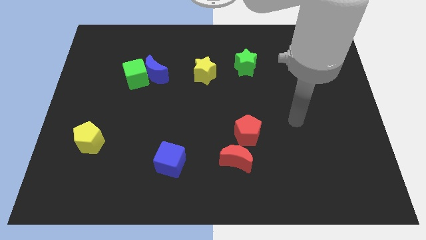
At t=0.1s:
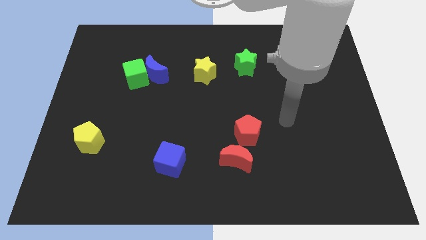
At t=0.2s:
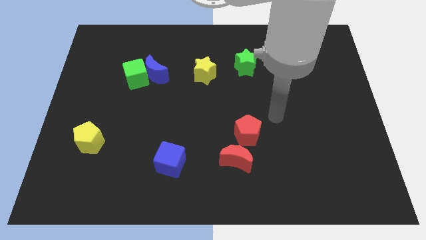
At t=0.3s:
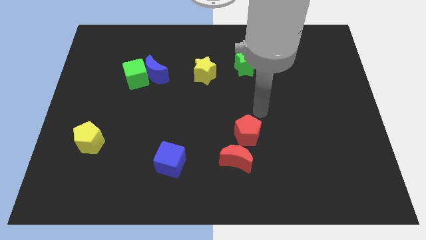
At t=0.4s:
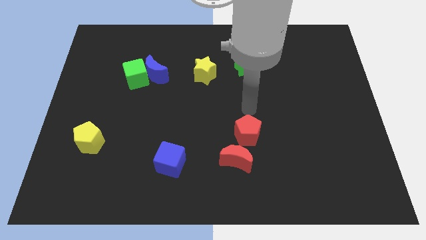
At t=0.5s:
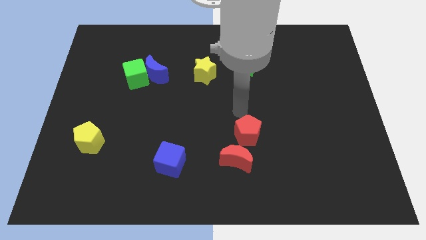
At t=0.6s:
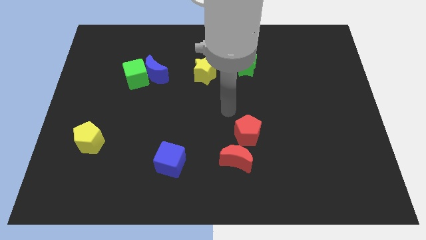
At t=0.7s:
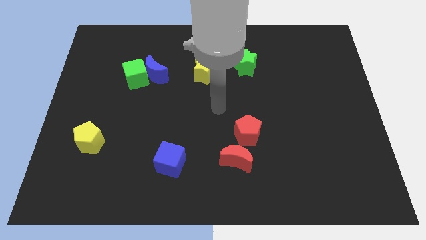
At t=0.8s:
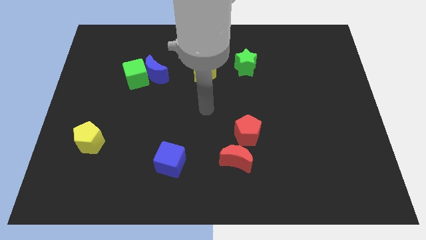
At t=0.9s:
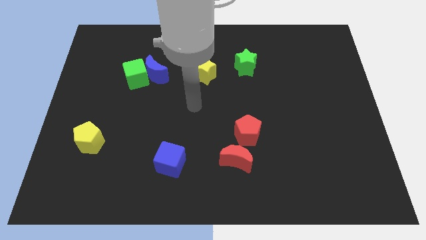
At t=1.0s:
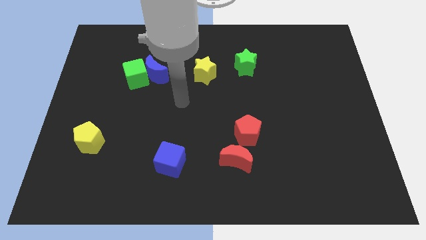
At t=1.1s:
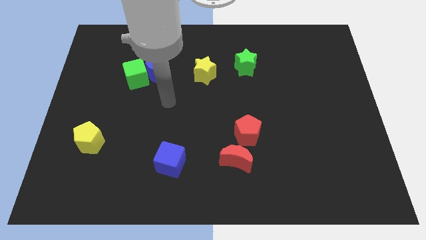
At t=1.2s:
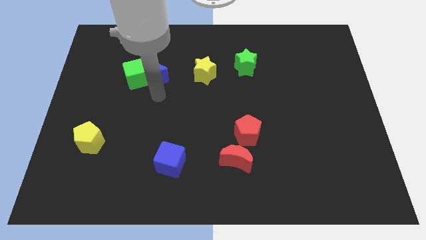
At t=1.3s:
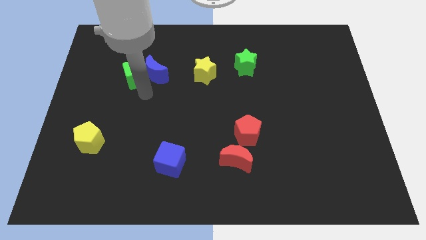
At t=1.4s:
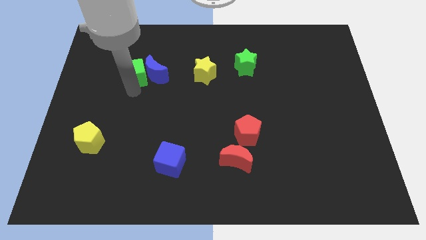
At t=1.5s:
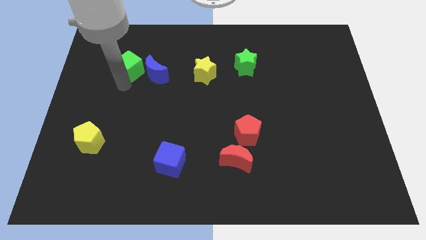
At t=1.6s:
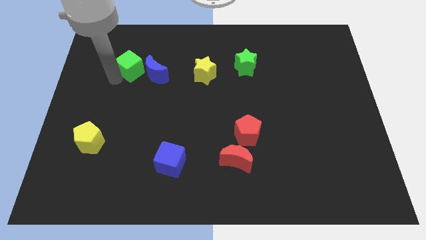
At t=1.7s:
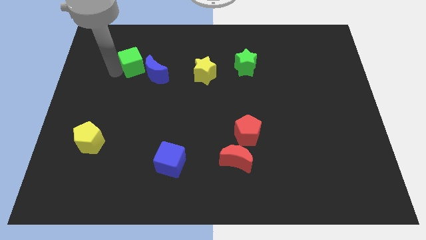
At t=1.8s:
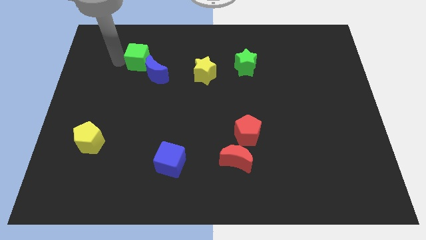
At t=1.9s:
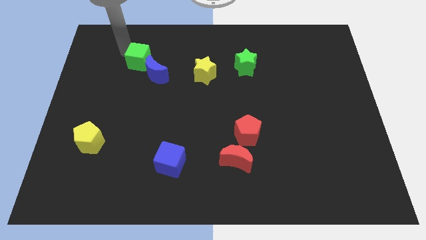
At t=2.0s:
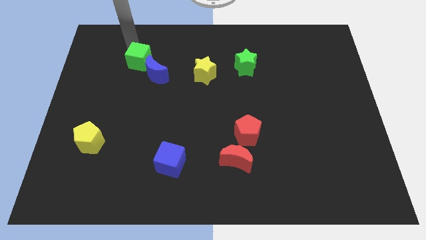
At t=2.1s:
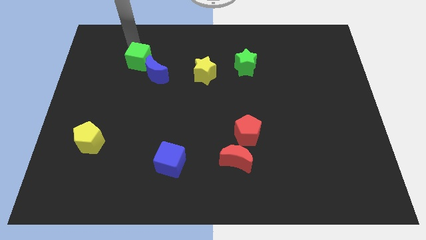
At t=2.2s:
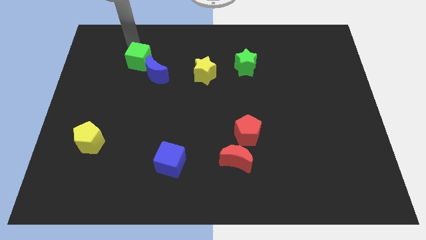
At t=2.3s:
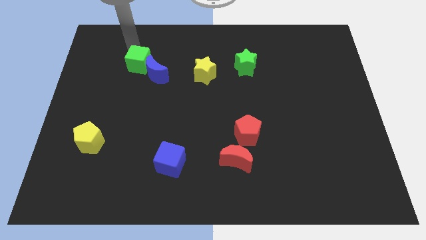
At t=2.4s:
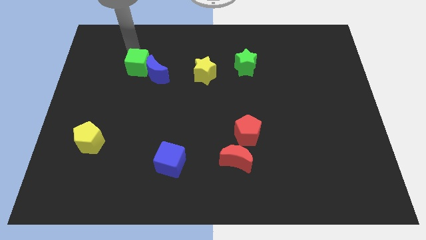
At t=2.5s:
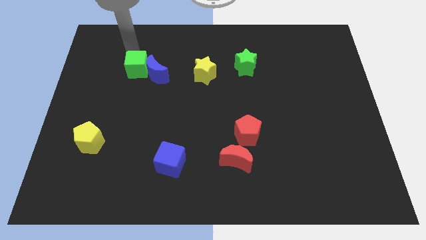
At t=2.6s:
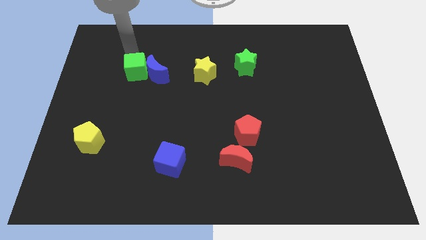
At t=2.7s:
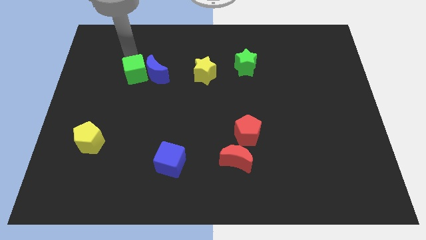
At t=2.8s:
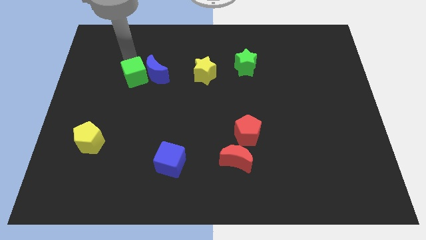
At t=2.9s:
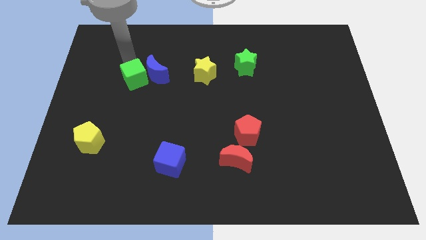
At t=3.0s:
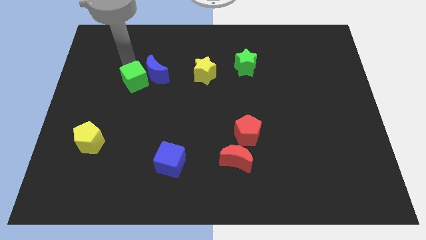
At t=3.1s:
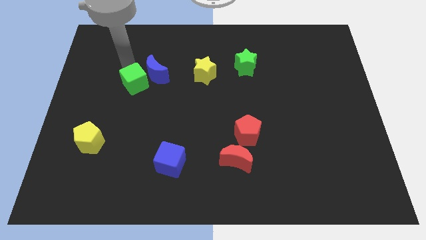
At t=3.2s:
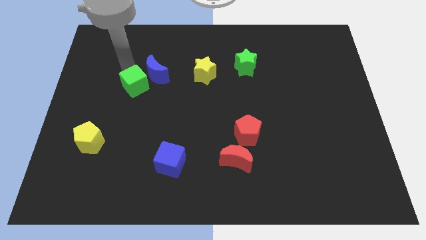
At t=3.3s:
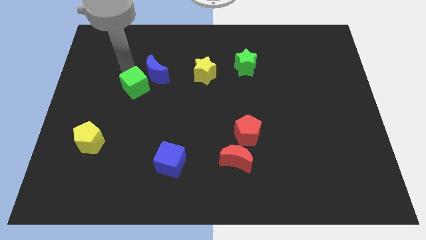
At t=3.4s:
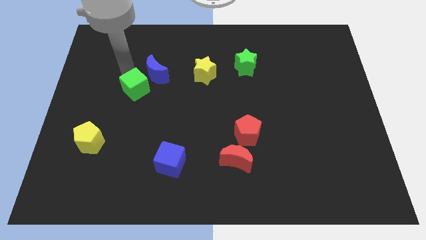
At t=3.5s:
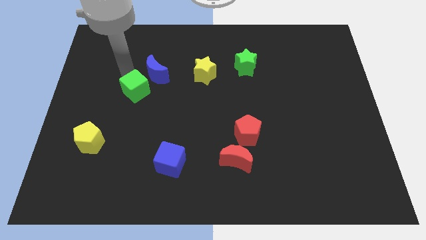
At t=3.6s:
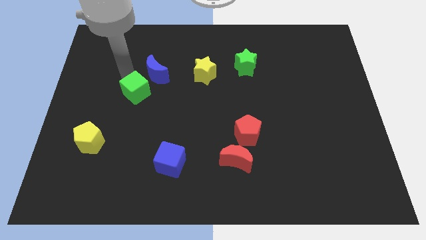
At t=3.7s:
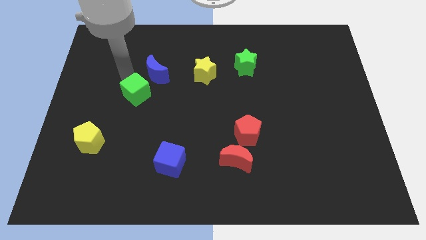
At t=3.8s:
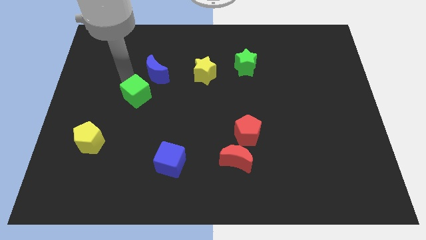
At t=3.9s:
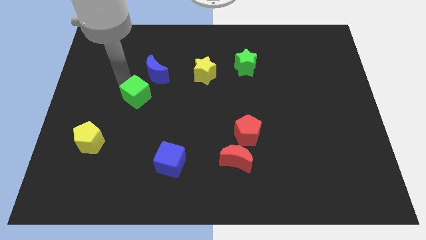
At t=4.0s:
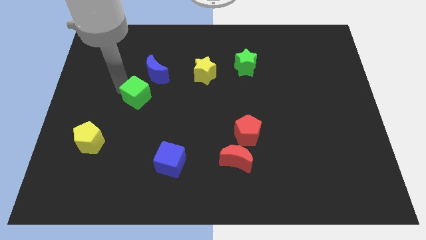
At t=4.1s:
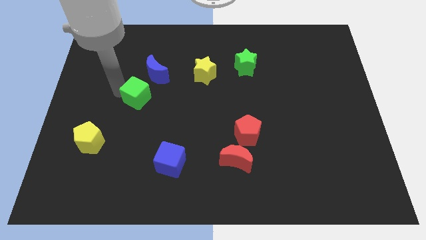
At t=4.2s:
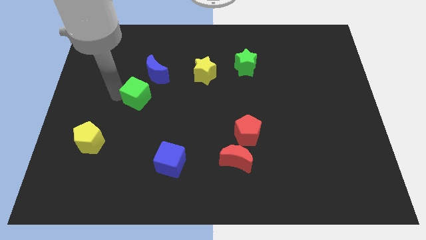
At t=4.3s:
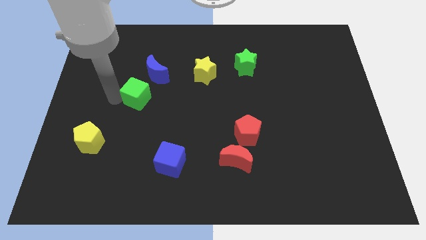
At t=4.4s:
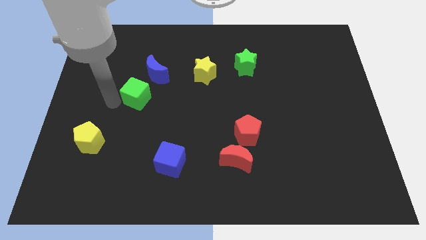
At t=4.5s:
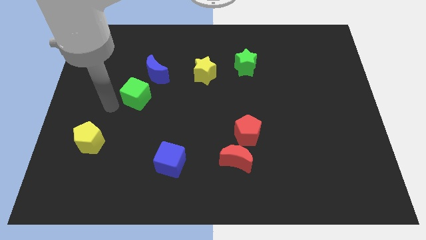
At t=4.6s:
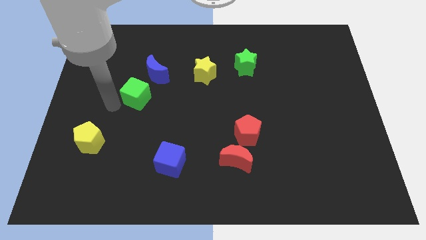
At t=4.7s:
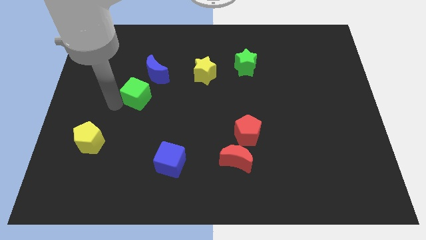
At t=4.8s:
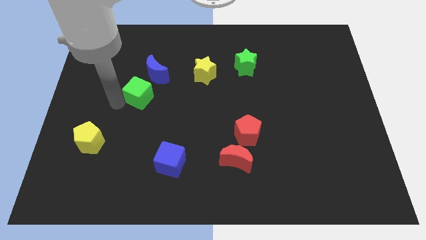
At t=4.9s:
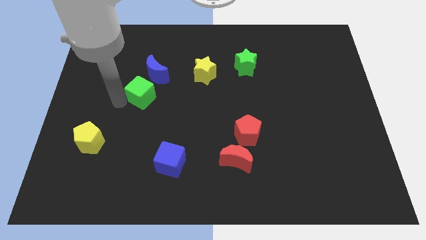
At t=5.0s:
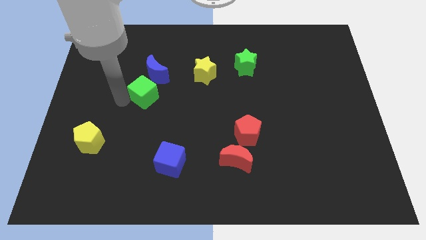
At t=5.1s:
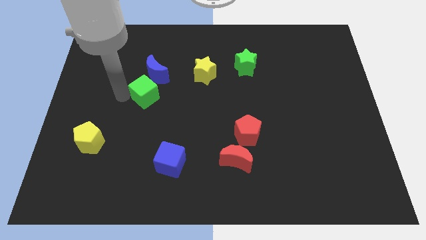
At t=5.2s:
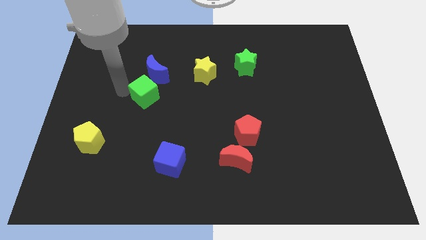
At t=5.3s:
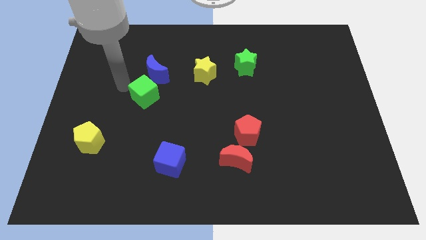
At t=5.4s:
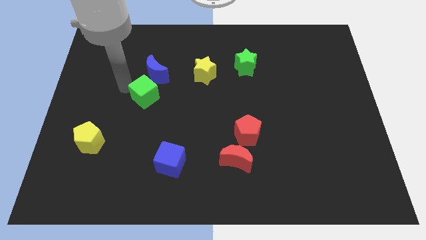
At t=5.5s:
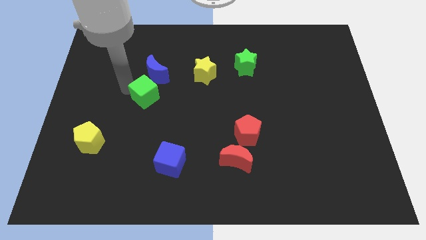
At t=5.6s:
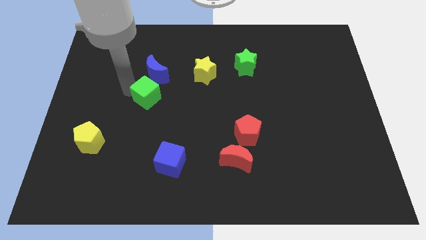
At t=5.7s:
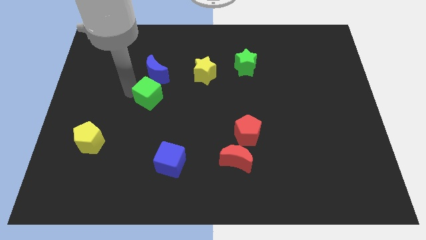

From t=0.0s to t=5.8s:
slightly push the green cube down and then to the right

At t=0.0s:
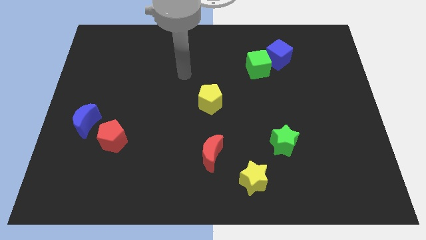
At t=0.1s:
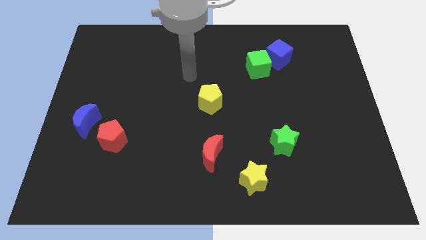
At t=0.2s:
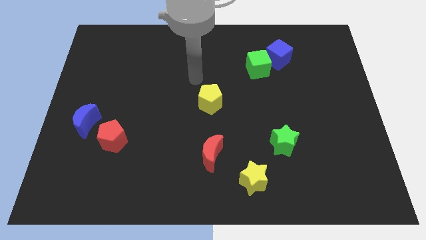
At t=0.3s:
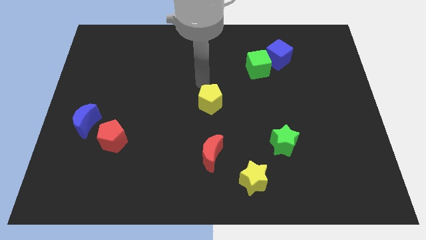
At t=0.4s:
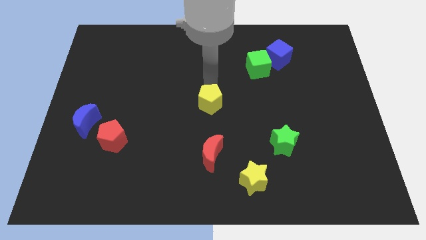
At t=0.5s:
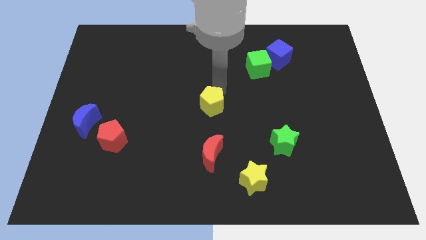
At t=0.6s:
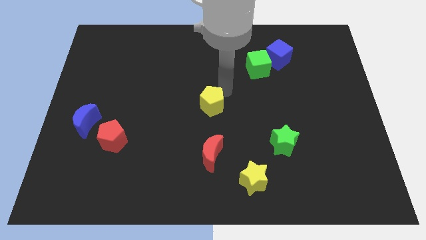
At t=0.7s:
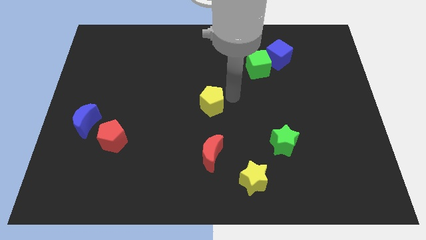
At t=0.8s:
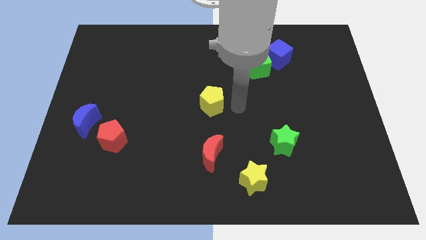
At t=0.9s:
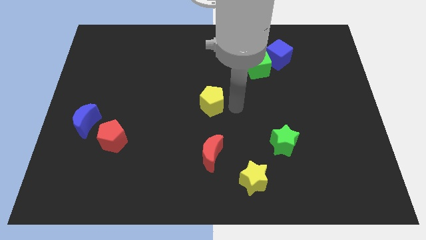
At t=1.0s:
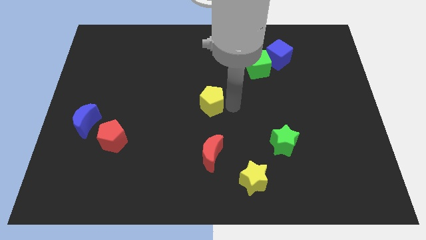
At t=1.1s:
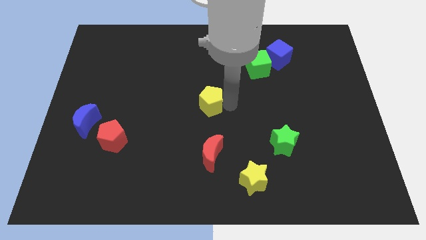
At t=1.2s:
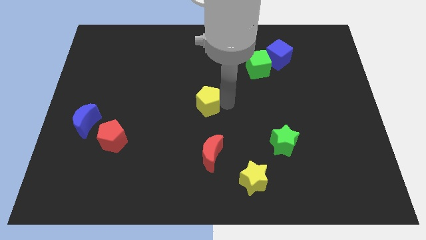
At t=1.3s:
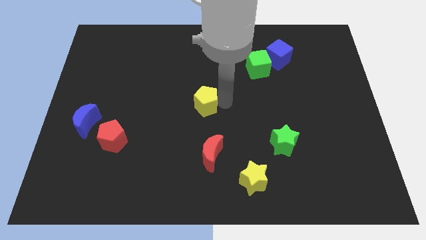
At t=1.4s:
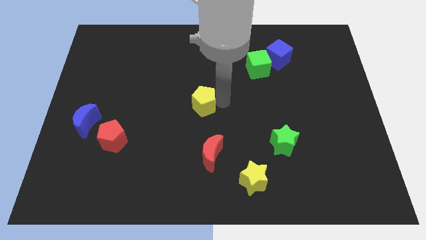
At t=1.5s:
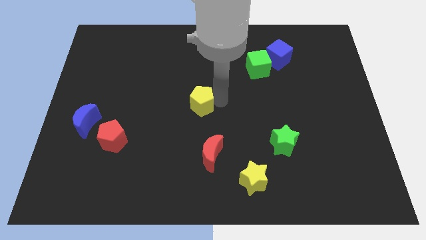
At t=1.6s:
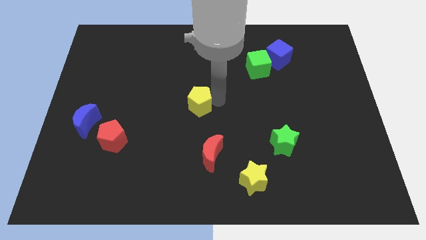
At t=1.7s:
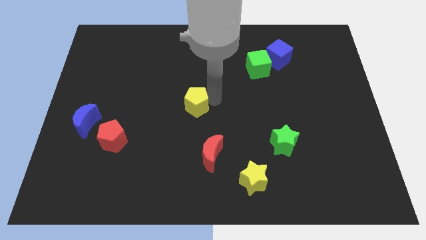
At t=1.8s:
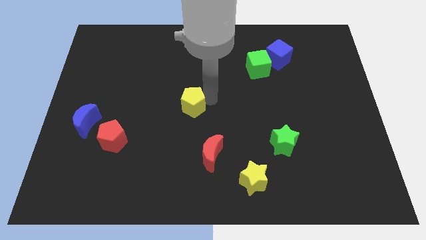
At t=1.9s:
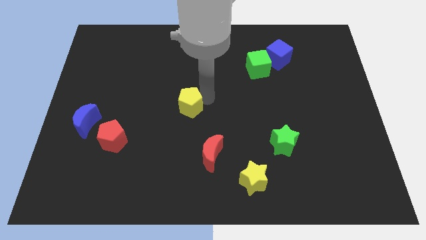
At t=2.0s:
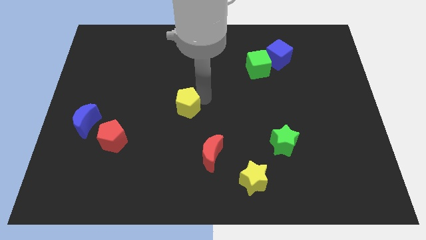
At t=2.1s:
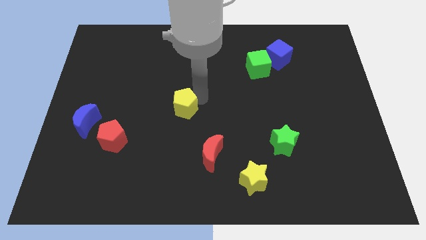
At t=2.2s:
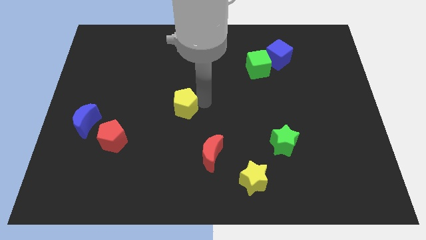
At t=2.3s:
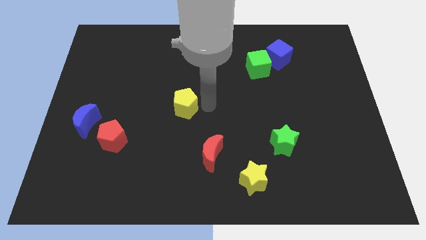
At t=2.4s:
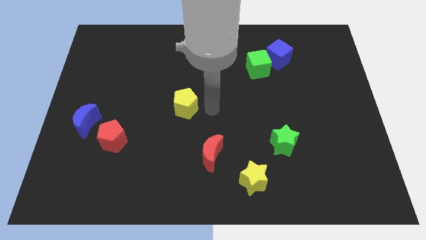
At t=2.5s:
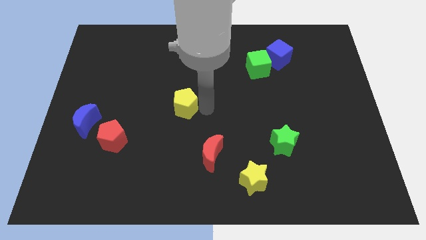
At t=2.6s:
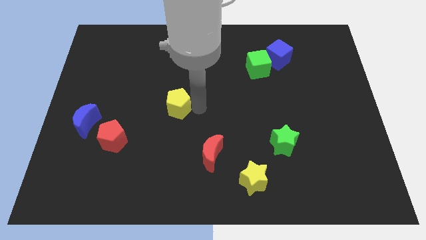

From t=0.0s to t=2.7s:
slide the yellow pentagon a little bit left
